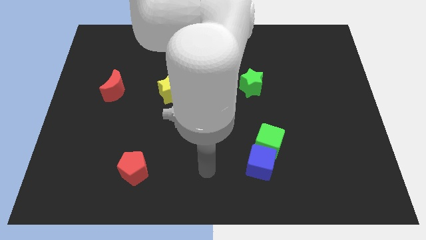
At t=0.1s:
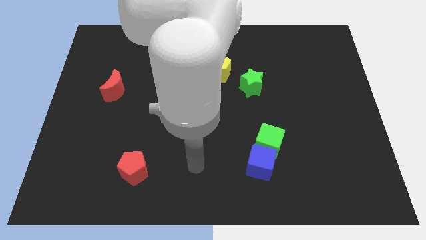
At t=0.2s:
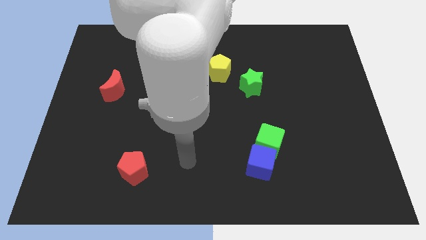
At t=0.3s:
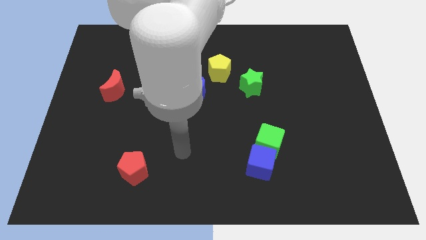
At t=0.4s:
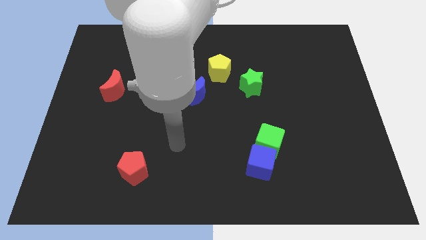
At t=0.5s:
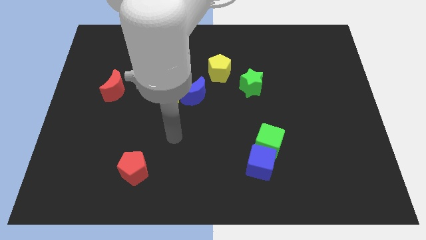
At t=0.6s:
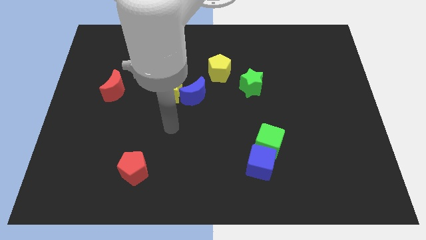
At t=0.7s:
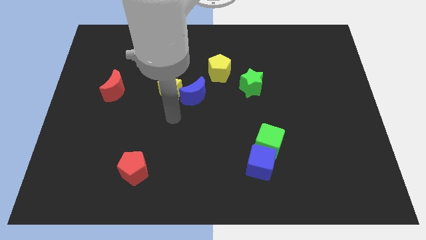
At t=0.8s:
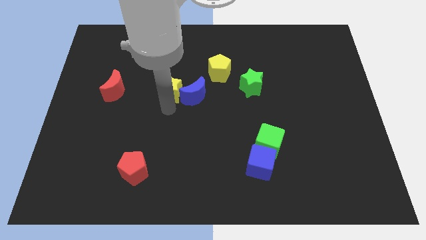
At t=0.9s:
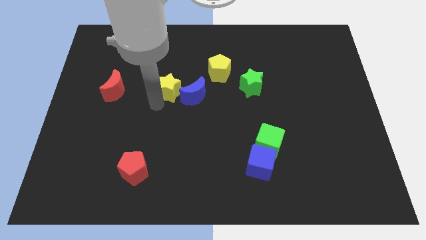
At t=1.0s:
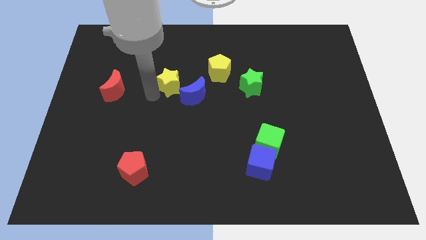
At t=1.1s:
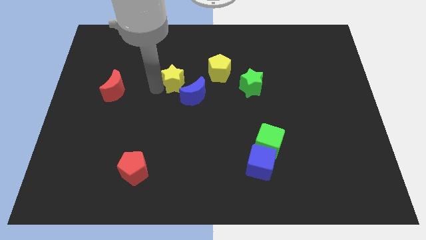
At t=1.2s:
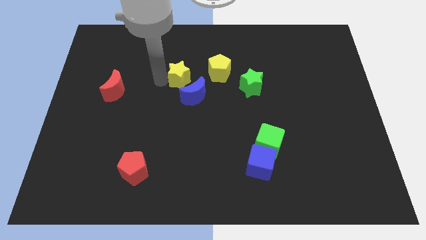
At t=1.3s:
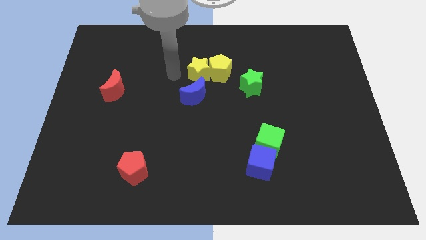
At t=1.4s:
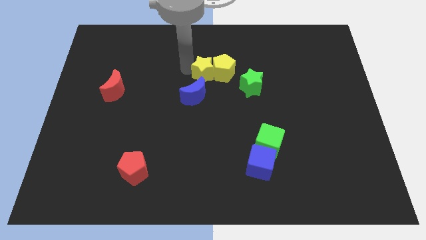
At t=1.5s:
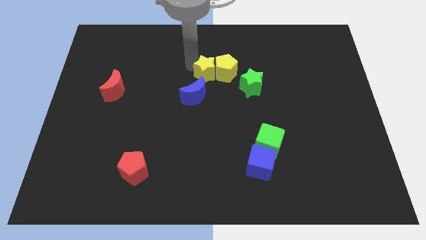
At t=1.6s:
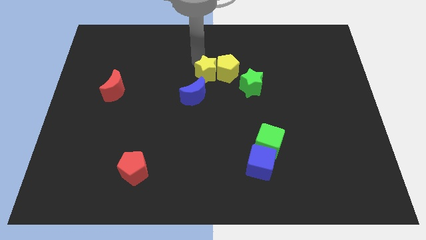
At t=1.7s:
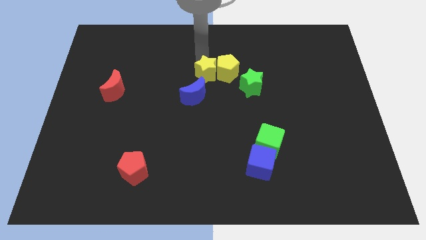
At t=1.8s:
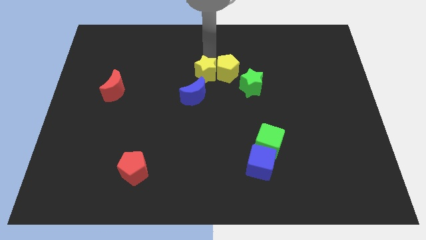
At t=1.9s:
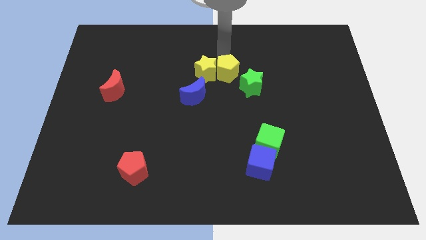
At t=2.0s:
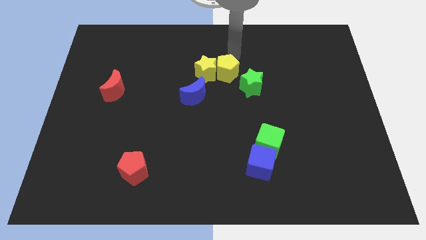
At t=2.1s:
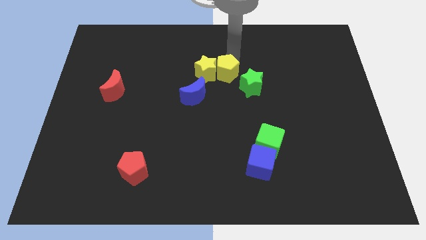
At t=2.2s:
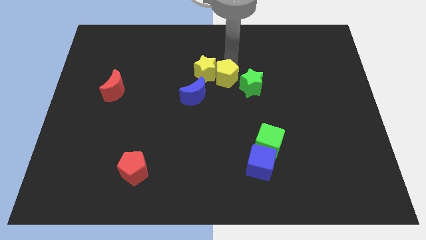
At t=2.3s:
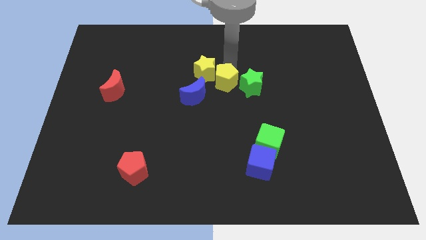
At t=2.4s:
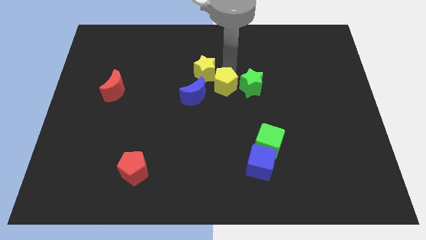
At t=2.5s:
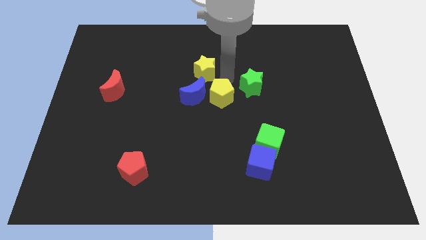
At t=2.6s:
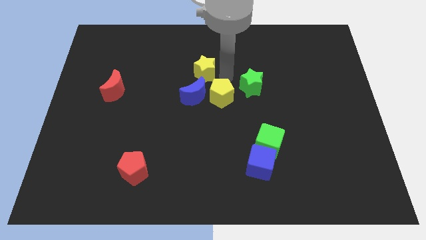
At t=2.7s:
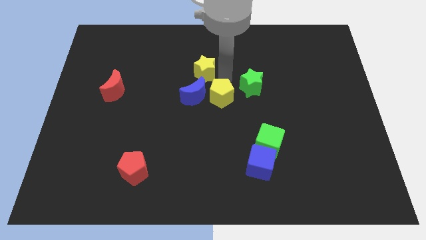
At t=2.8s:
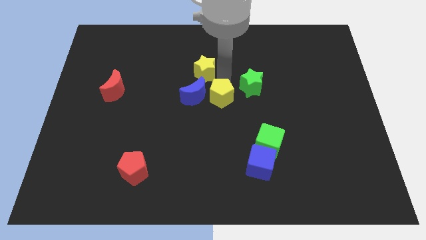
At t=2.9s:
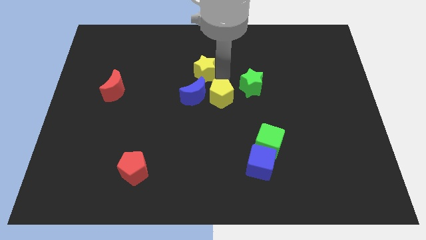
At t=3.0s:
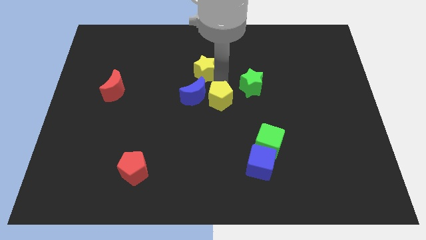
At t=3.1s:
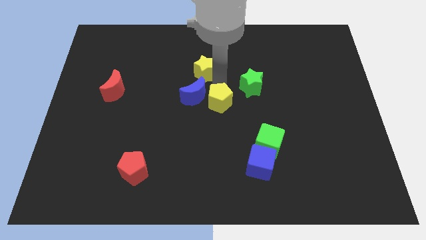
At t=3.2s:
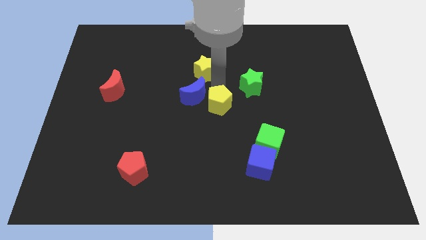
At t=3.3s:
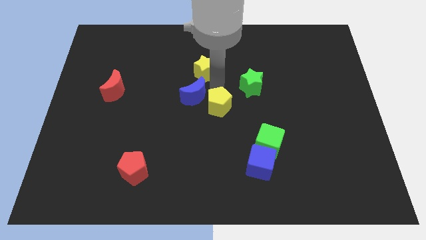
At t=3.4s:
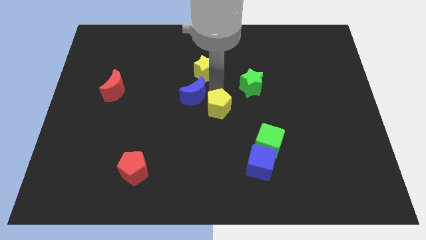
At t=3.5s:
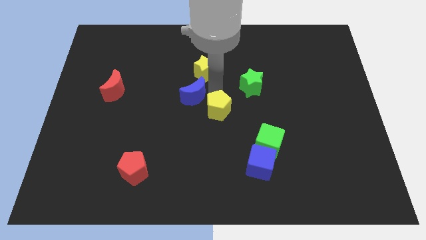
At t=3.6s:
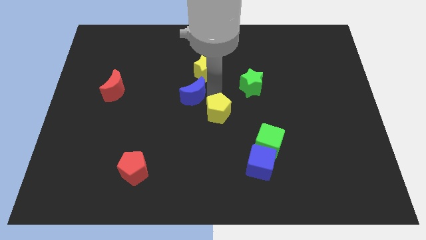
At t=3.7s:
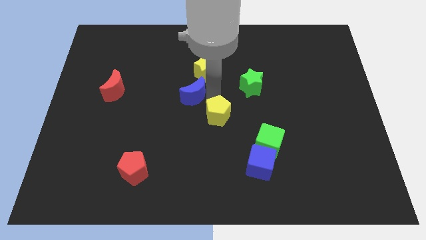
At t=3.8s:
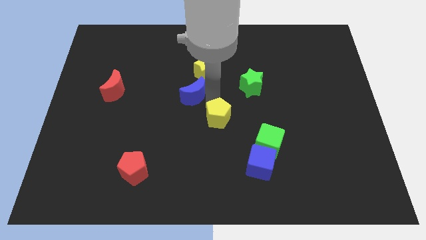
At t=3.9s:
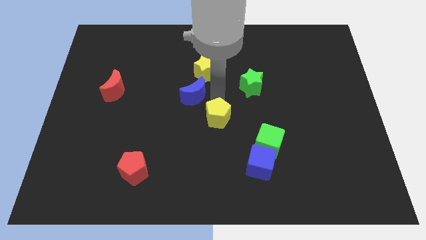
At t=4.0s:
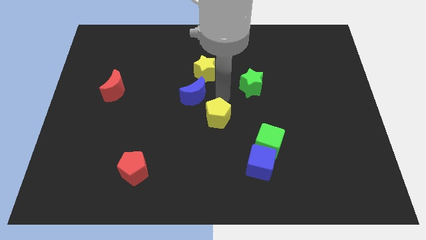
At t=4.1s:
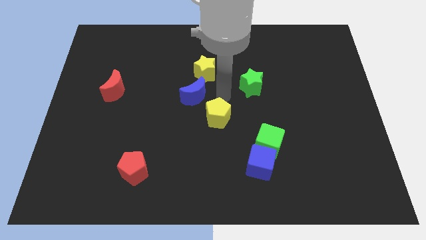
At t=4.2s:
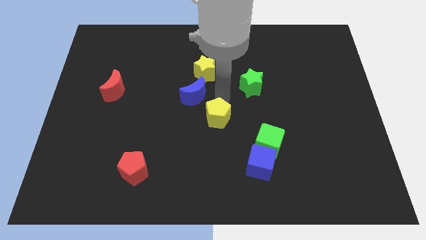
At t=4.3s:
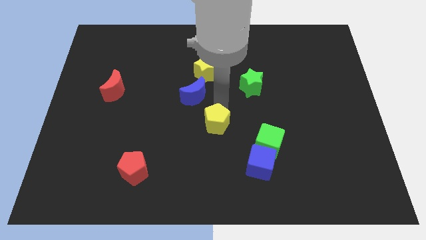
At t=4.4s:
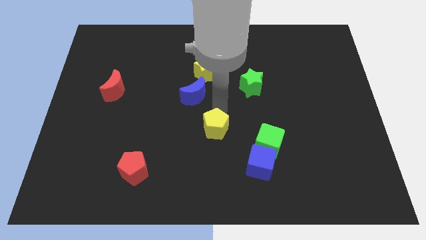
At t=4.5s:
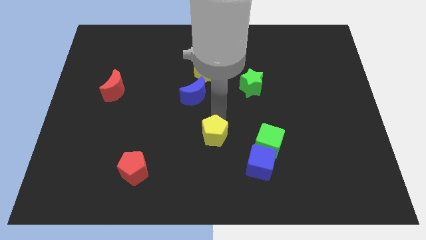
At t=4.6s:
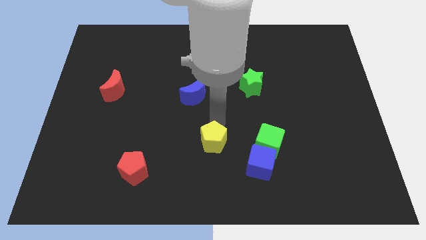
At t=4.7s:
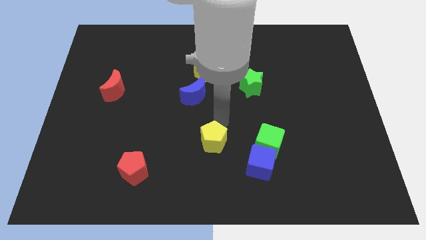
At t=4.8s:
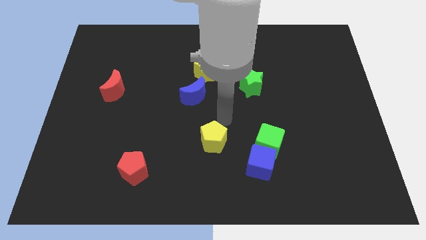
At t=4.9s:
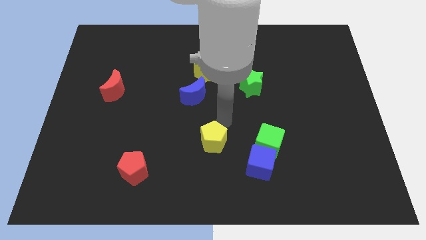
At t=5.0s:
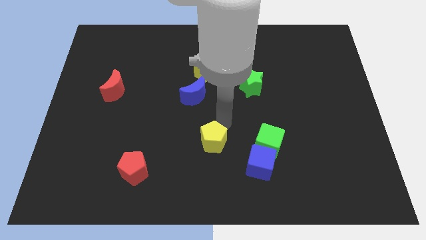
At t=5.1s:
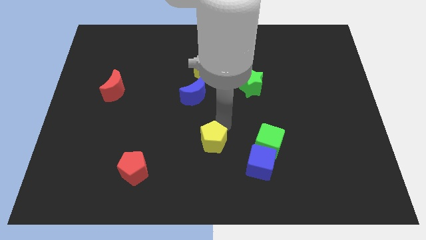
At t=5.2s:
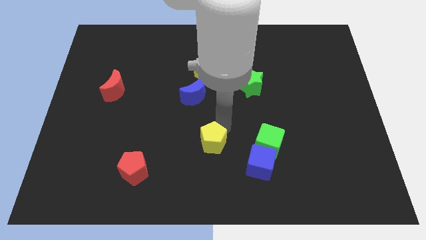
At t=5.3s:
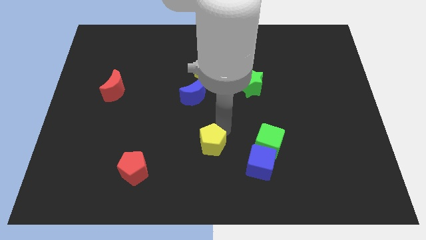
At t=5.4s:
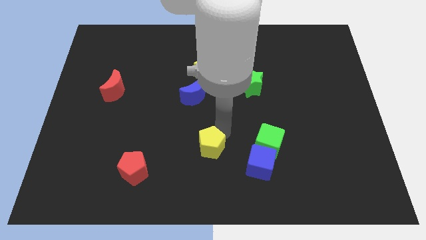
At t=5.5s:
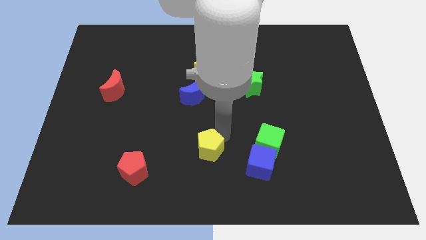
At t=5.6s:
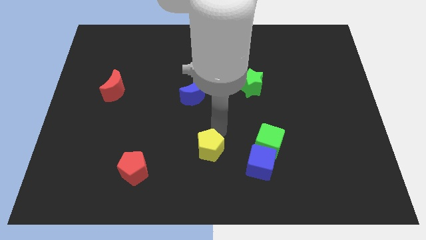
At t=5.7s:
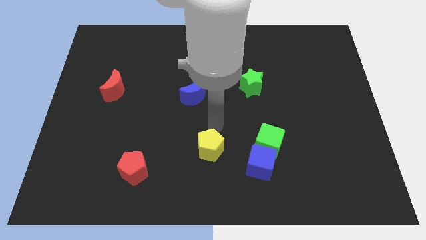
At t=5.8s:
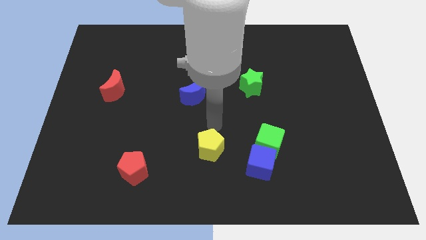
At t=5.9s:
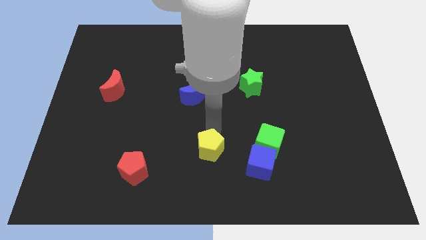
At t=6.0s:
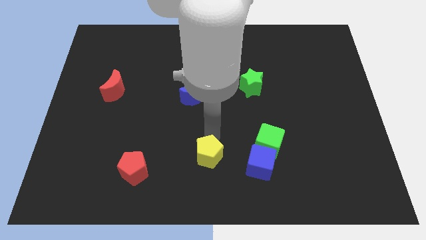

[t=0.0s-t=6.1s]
push the yellow pentagon to the bottom side

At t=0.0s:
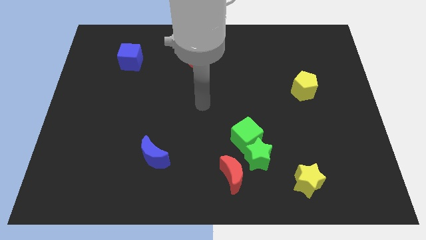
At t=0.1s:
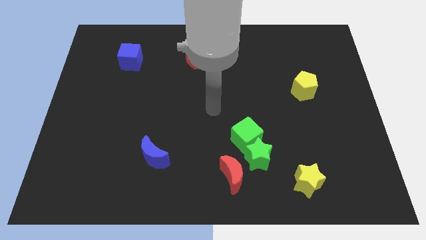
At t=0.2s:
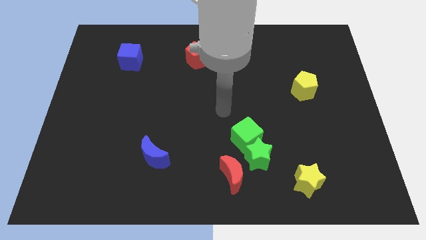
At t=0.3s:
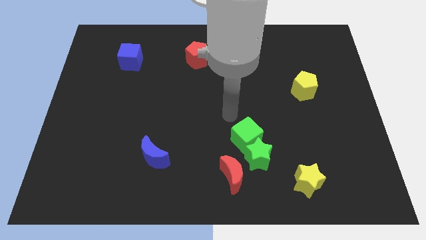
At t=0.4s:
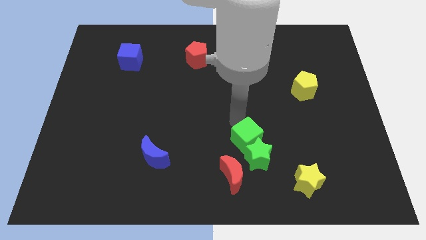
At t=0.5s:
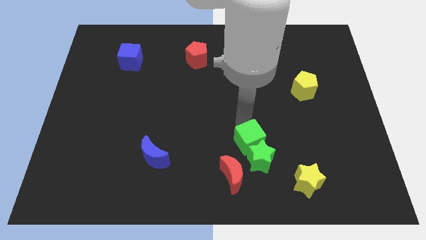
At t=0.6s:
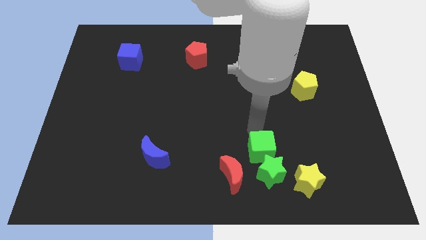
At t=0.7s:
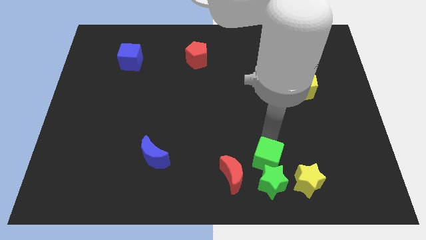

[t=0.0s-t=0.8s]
push the green star to the bottom side
